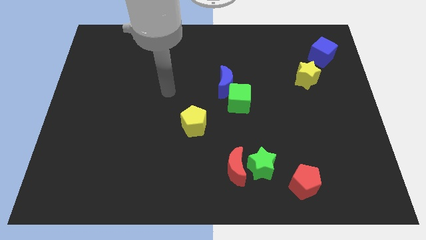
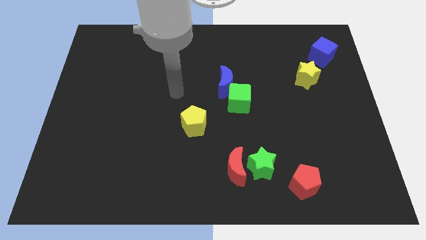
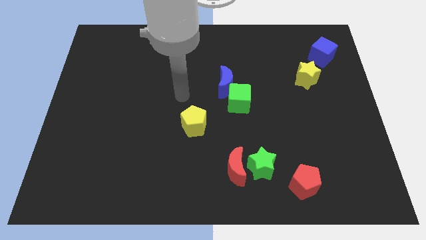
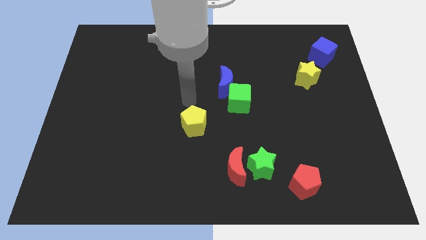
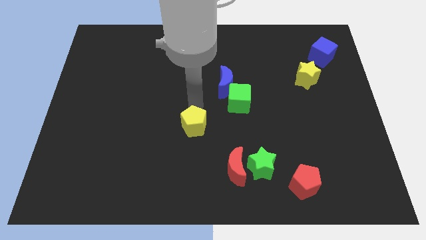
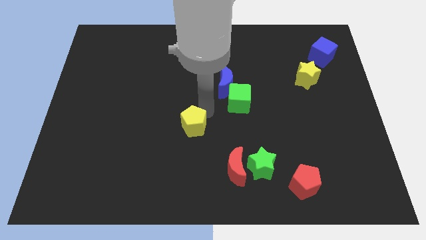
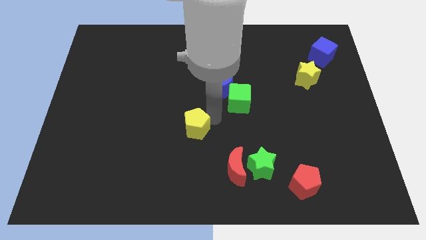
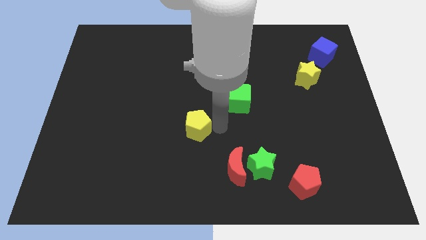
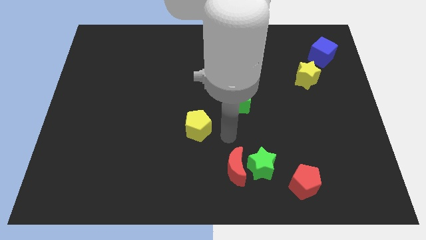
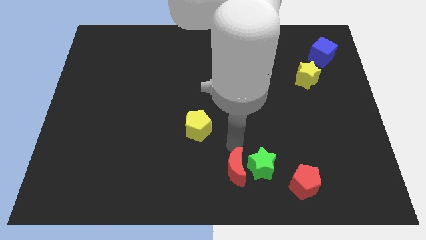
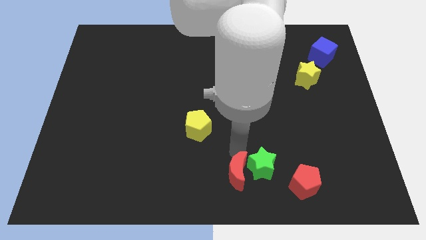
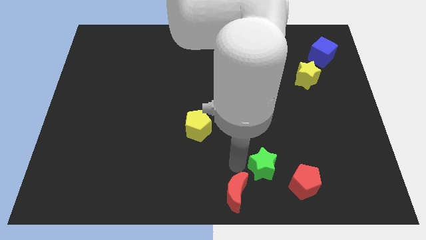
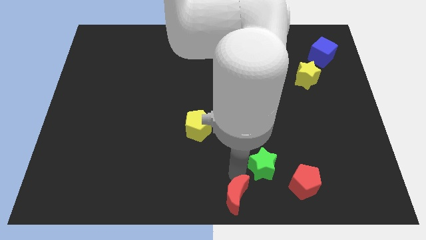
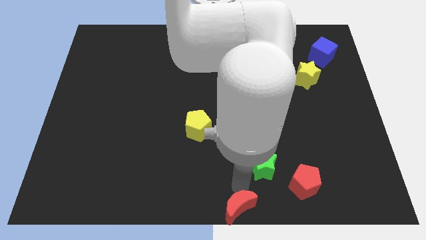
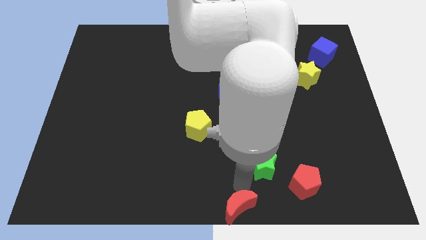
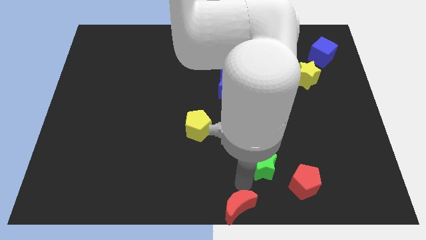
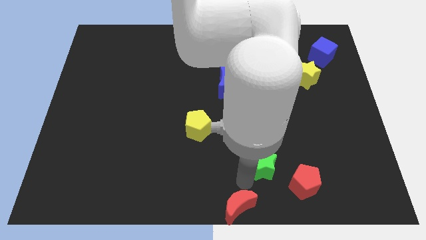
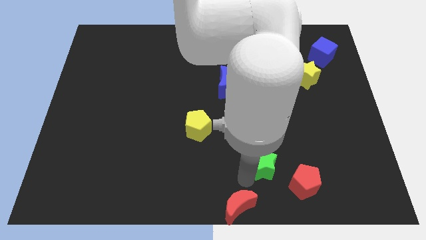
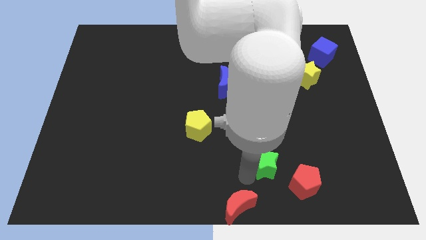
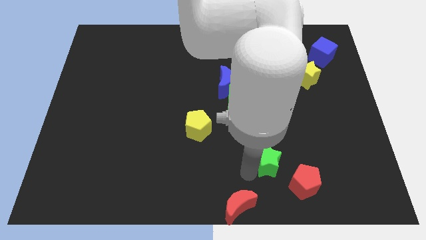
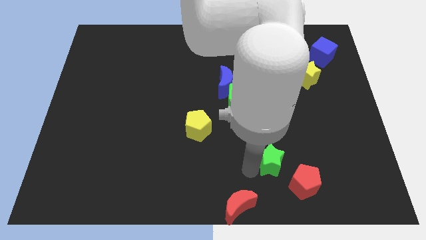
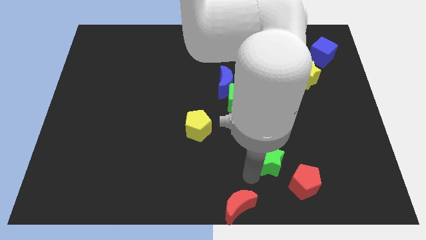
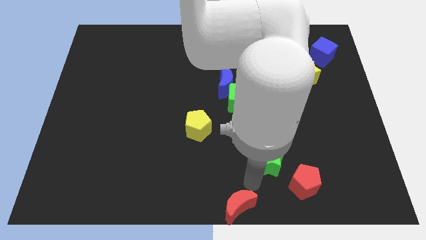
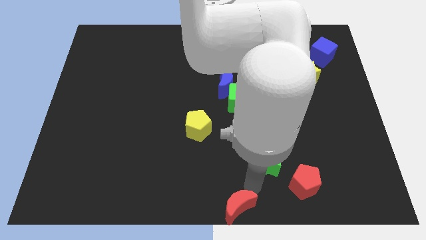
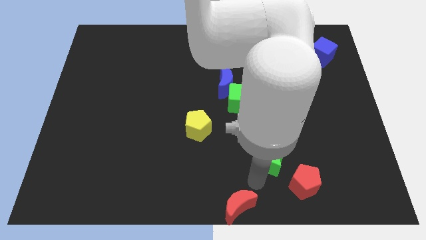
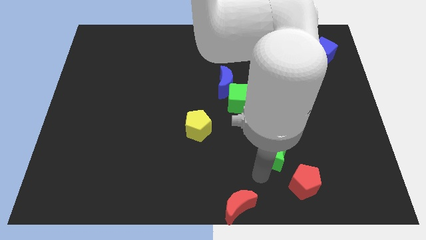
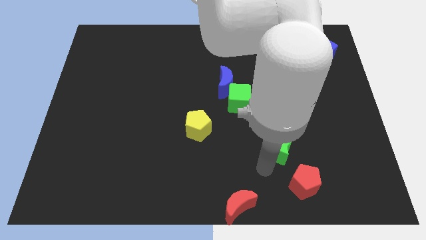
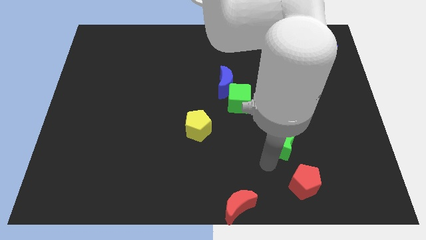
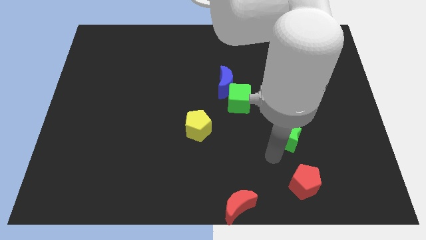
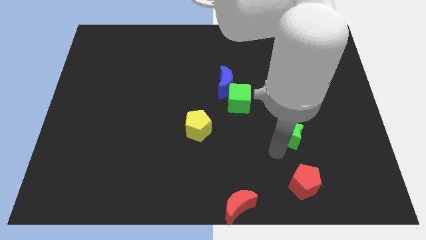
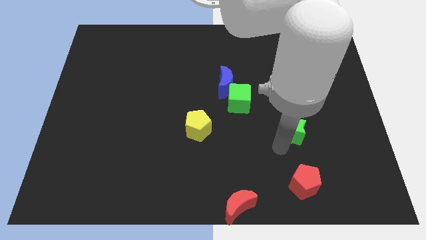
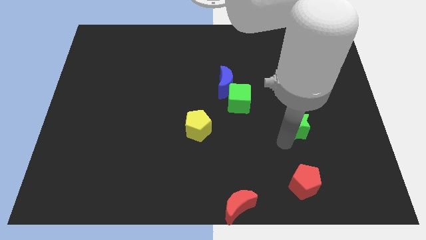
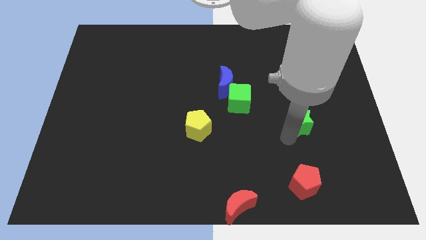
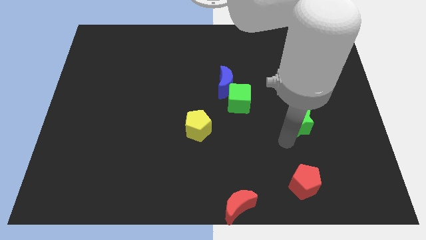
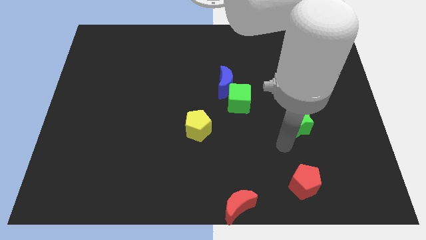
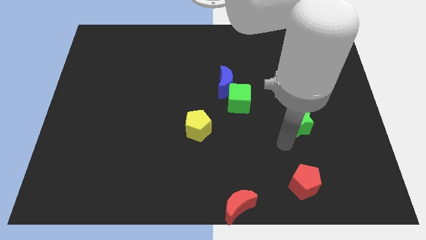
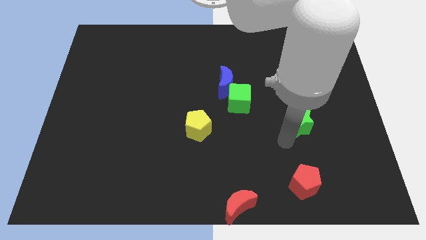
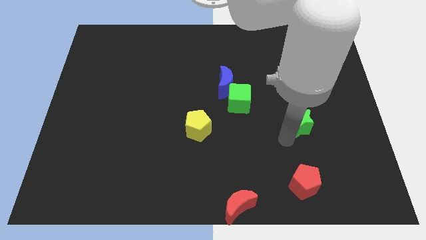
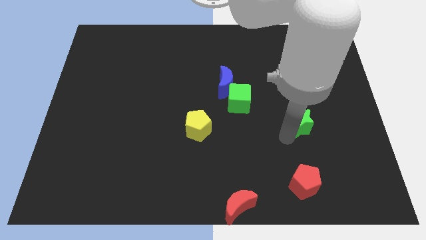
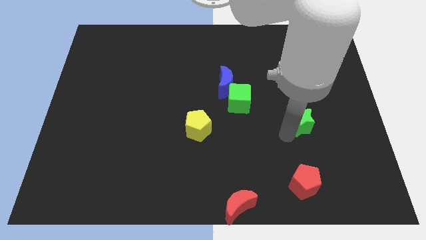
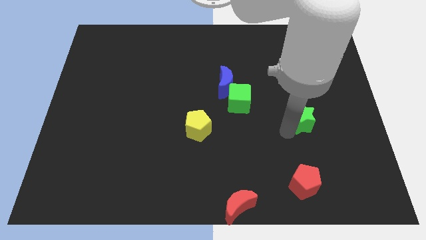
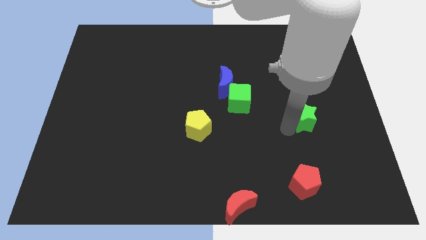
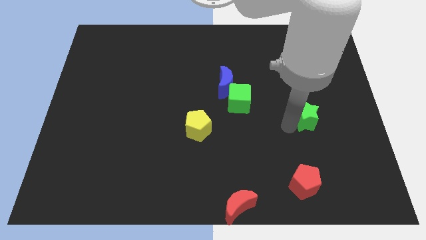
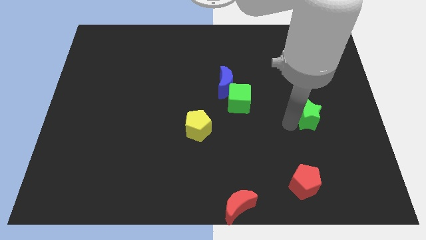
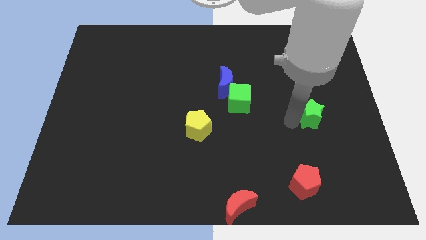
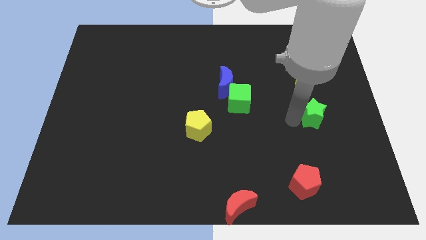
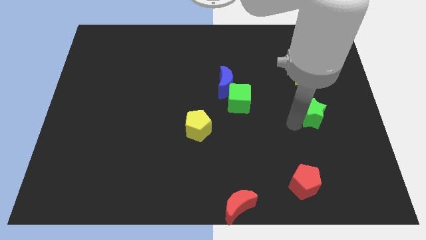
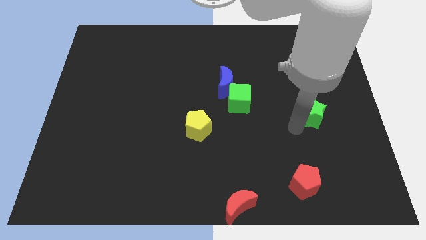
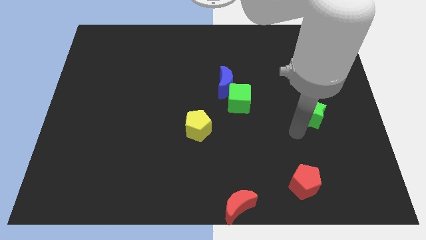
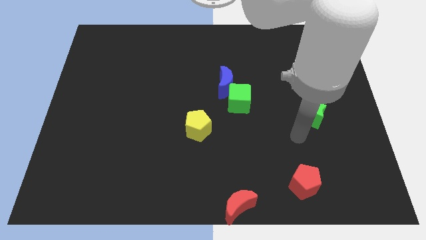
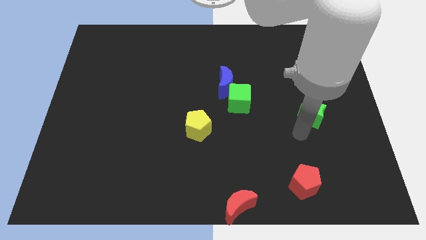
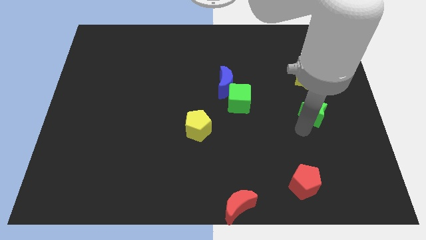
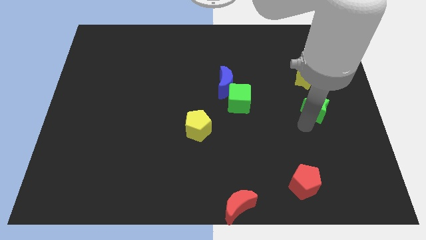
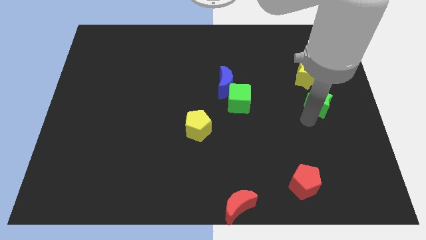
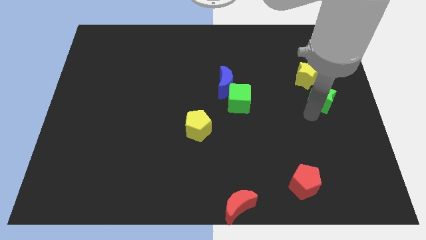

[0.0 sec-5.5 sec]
put the green star to the bottom right side of the yellow star

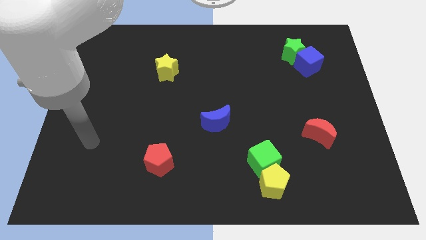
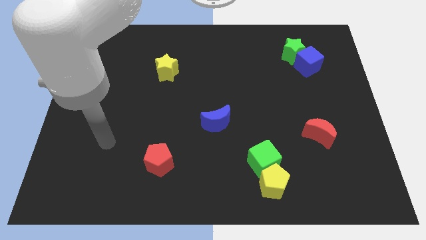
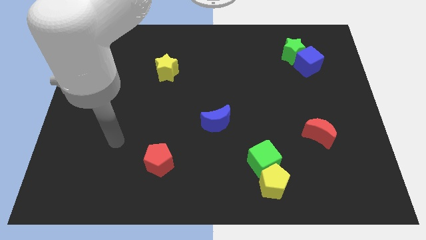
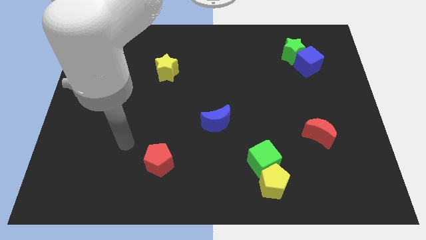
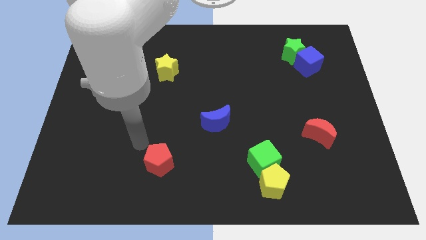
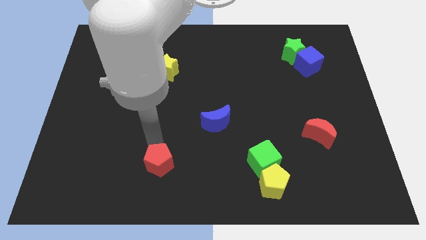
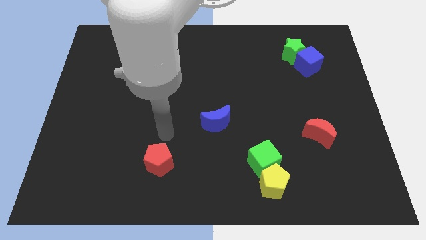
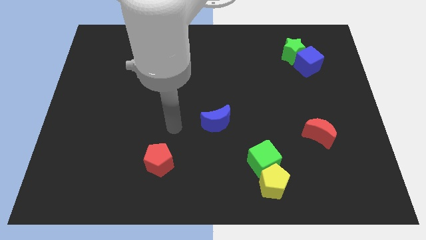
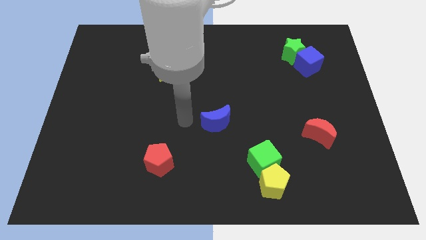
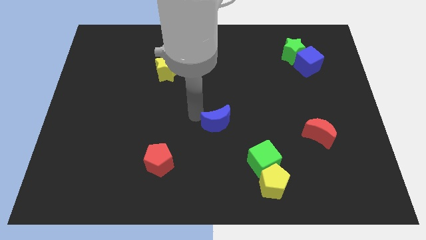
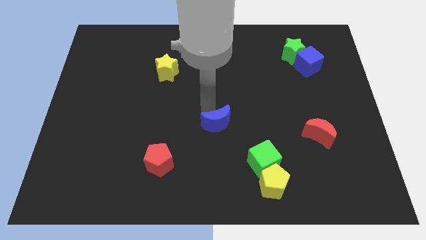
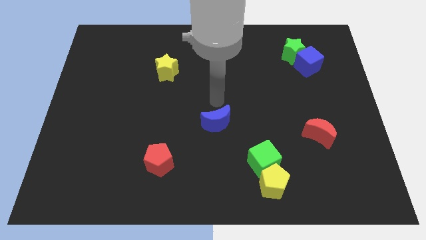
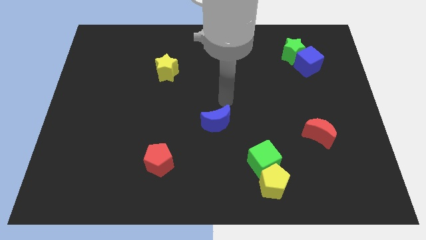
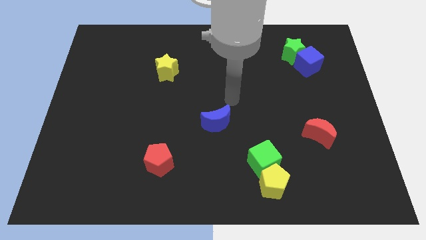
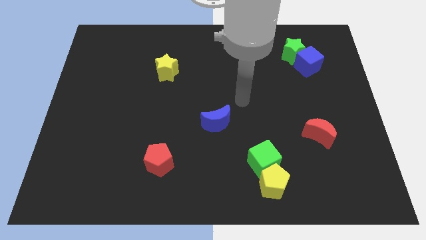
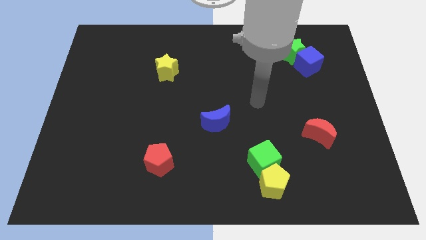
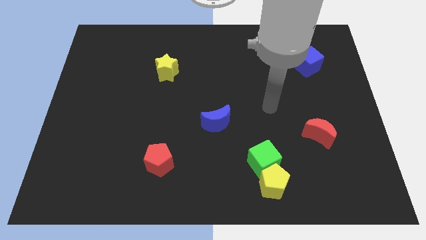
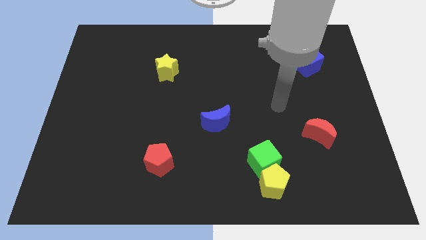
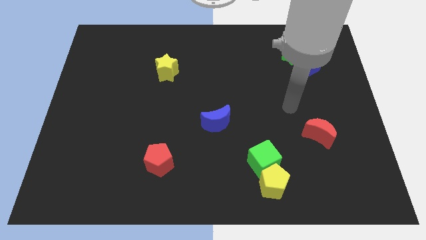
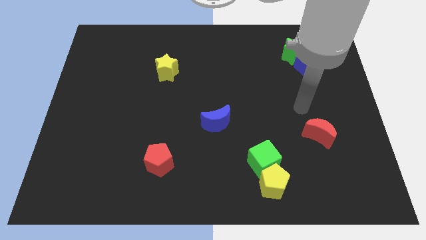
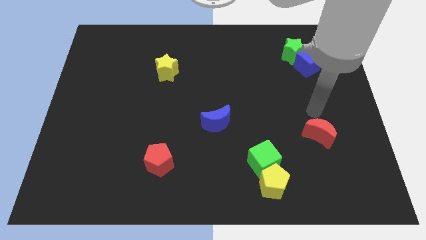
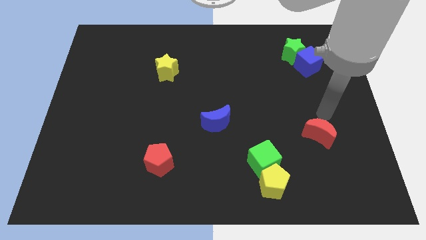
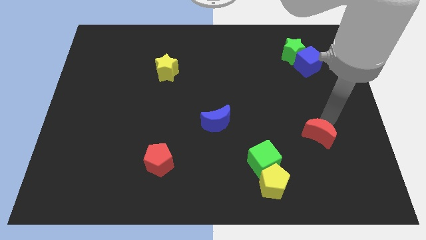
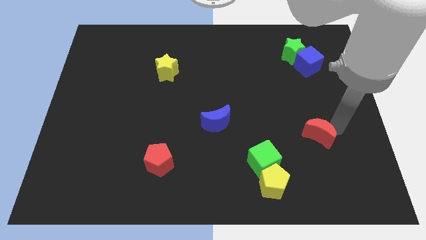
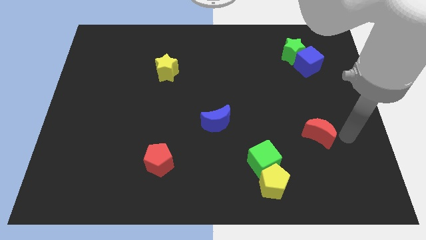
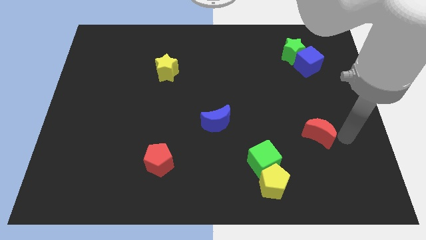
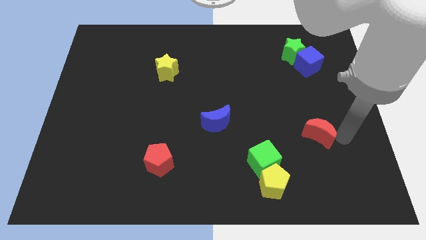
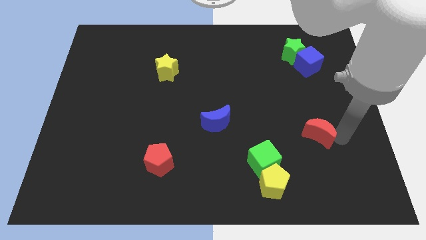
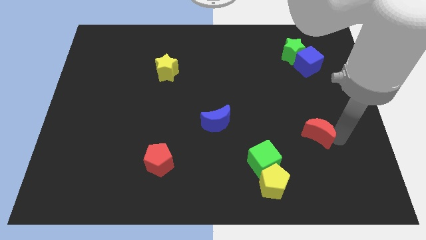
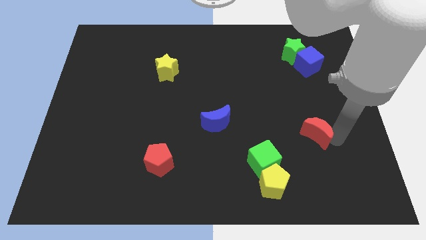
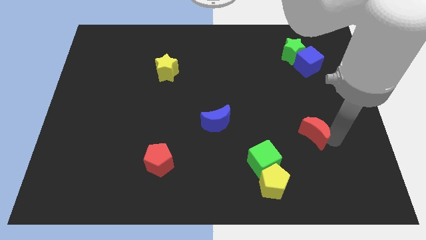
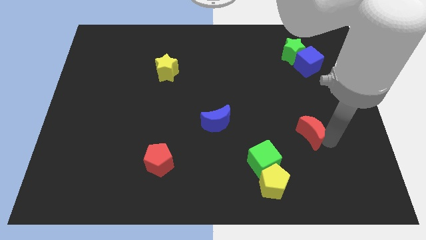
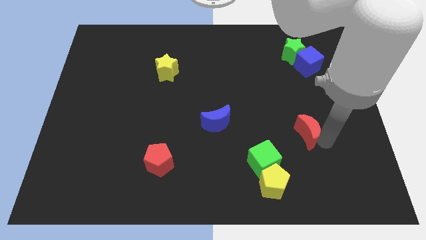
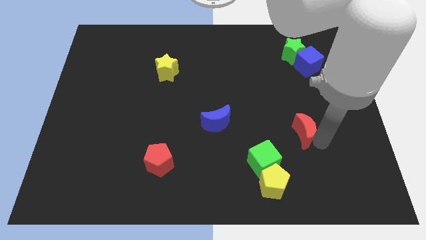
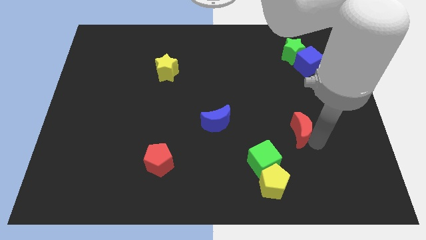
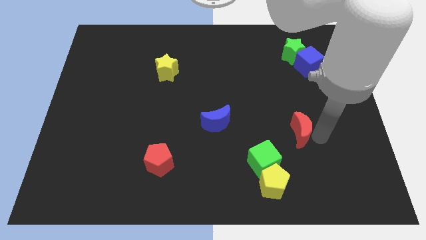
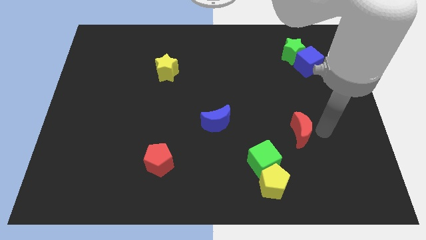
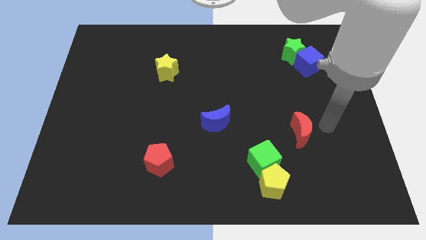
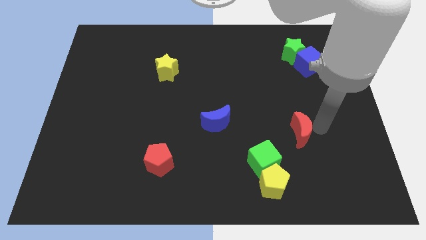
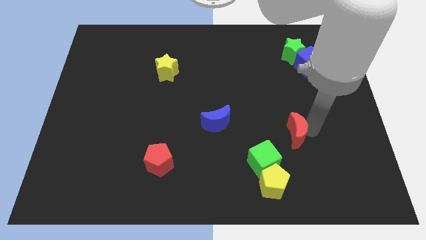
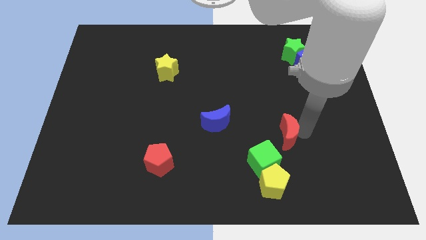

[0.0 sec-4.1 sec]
slide the red moon to the top side of the yellow pentagon
